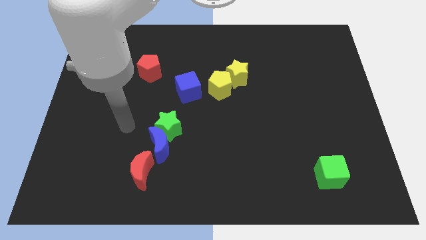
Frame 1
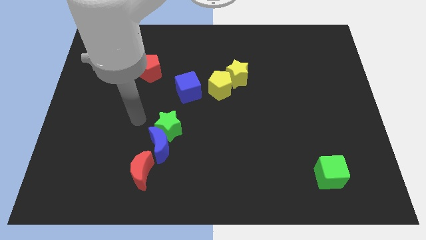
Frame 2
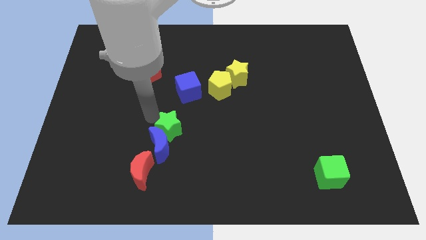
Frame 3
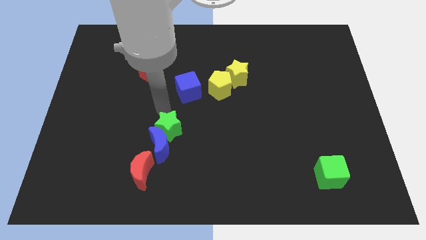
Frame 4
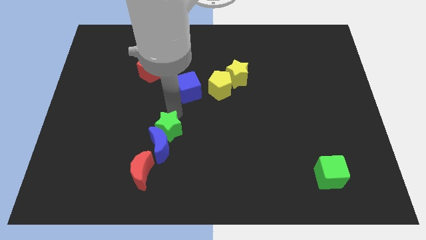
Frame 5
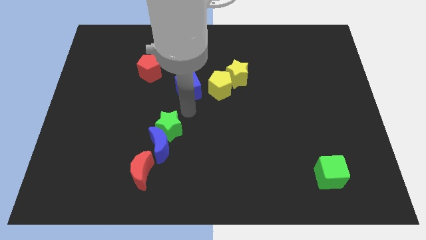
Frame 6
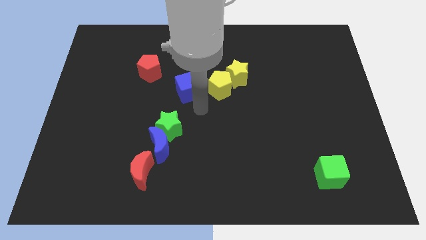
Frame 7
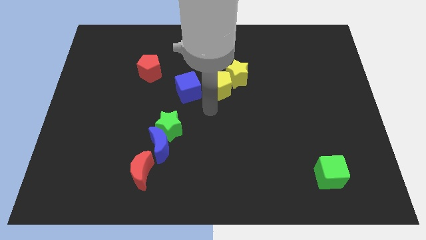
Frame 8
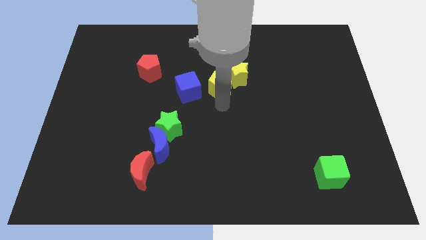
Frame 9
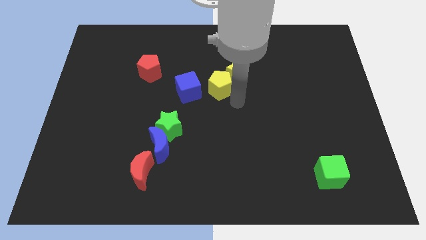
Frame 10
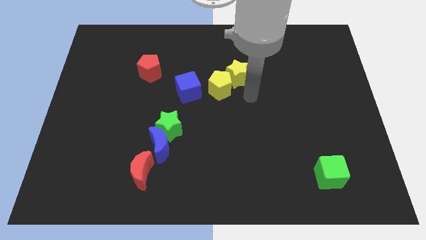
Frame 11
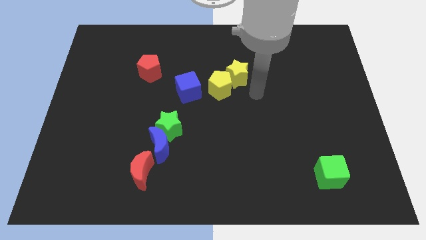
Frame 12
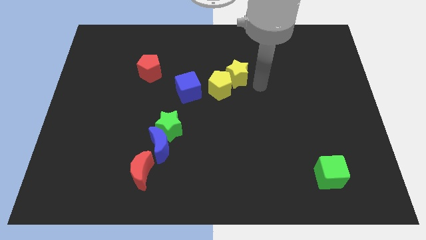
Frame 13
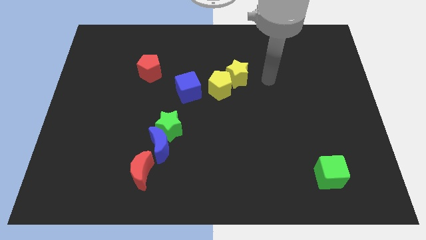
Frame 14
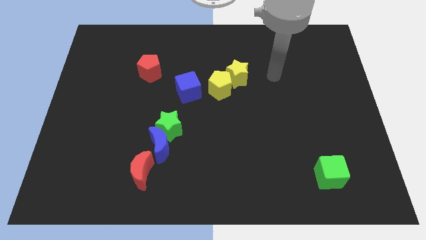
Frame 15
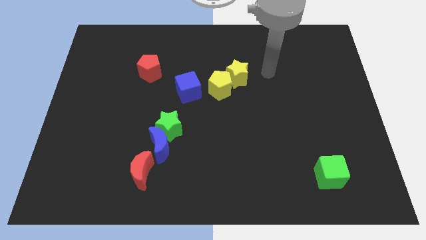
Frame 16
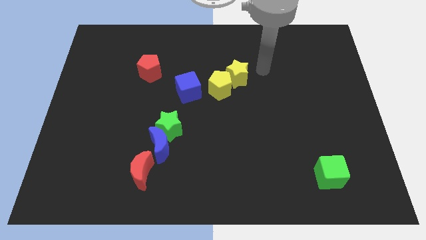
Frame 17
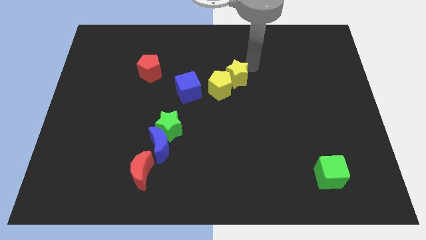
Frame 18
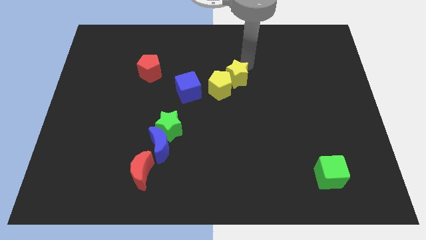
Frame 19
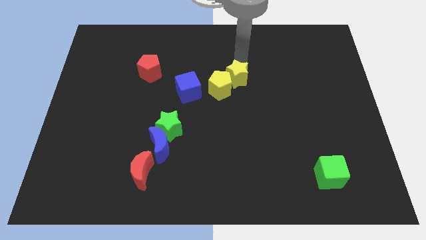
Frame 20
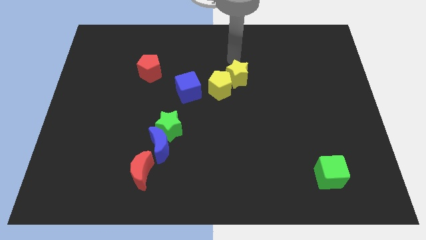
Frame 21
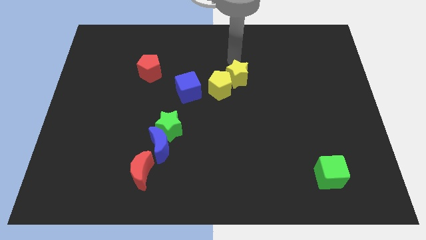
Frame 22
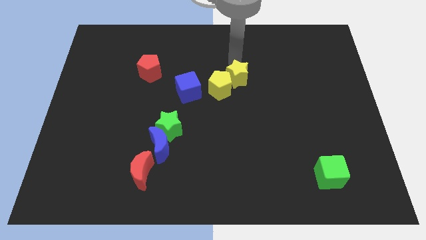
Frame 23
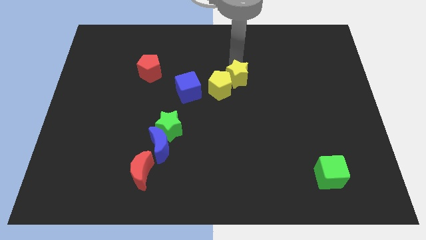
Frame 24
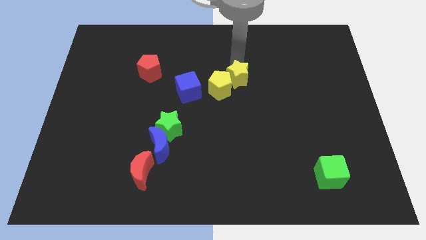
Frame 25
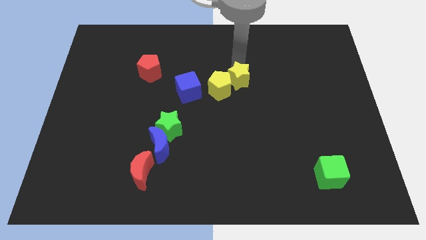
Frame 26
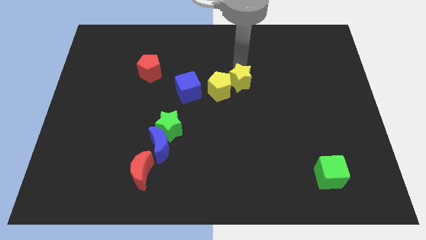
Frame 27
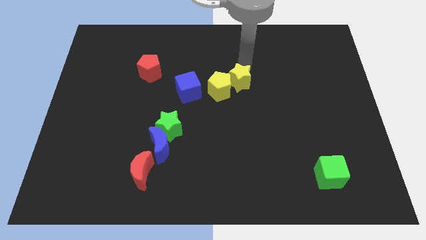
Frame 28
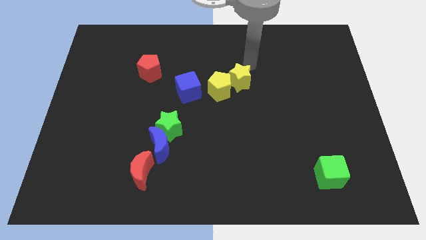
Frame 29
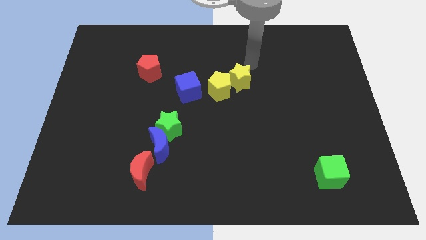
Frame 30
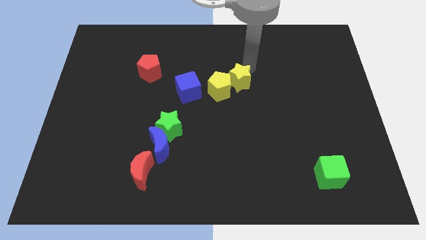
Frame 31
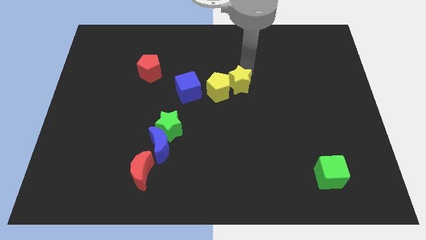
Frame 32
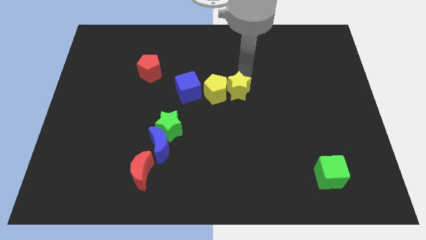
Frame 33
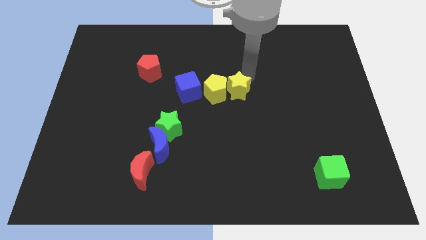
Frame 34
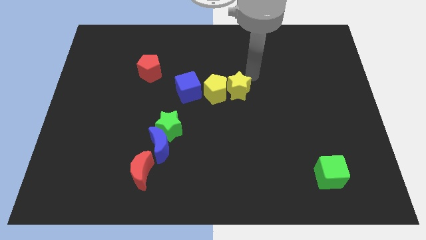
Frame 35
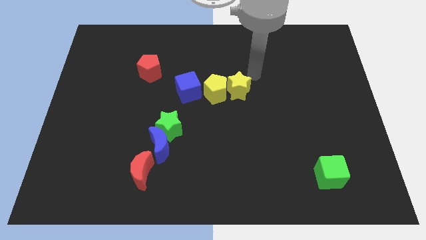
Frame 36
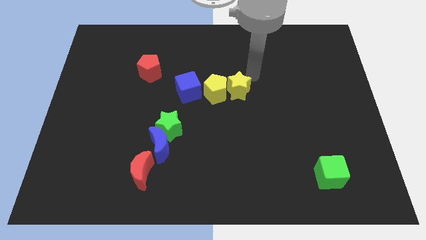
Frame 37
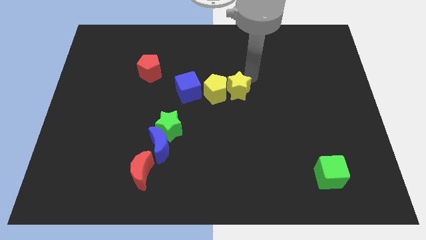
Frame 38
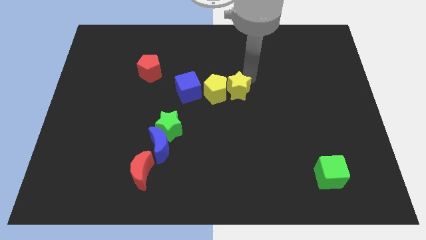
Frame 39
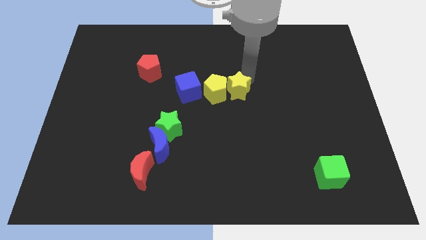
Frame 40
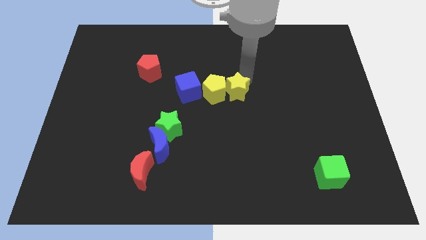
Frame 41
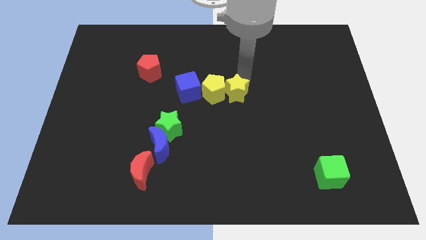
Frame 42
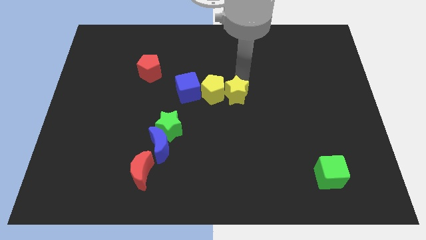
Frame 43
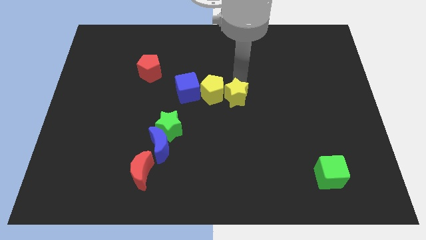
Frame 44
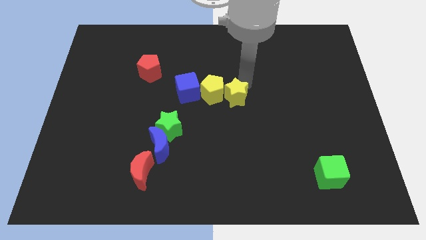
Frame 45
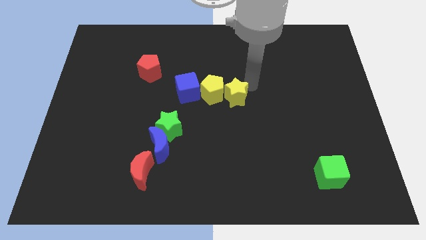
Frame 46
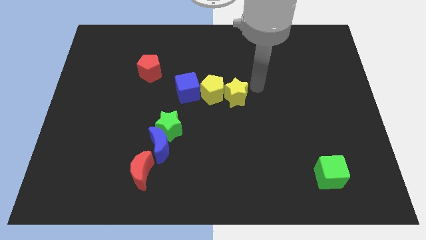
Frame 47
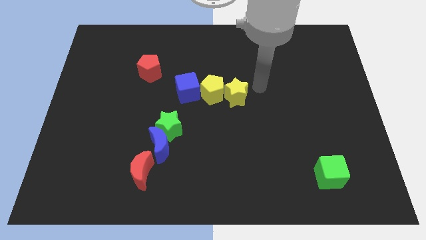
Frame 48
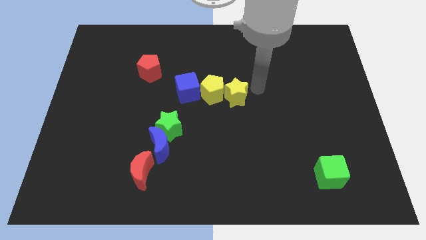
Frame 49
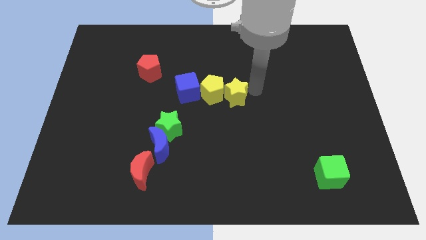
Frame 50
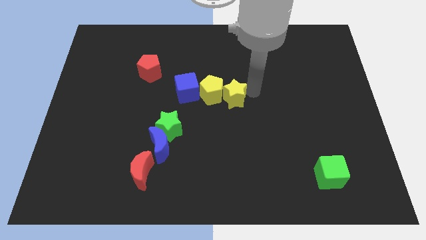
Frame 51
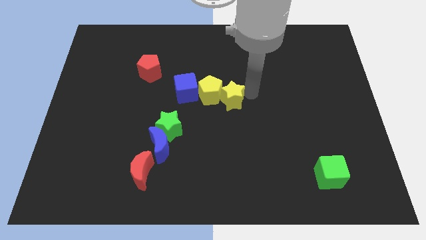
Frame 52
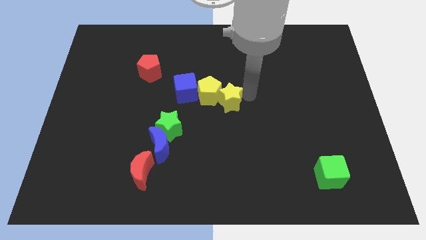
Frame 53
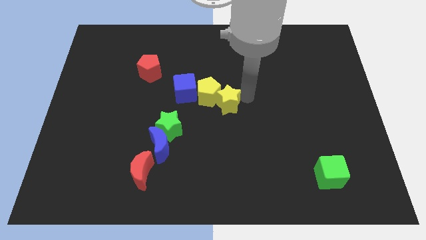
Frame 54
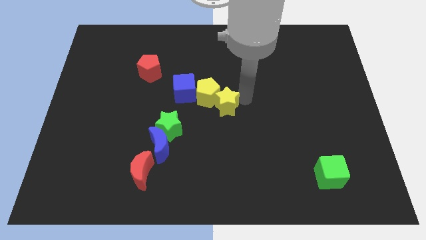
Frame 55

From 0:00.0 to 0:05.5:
slide the yellow star diagonally down and to the right of the blue cube

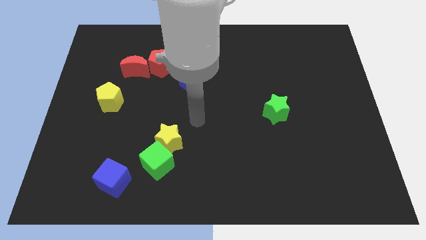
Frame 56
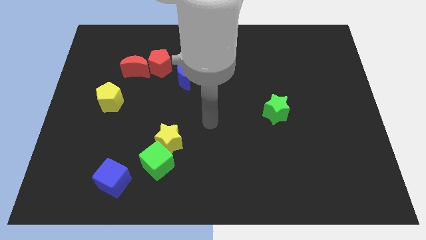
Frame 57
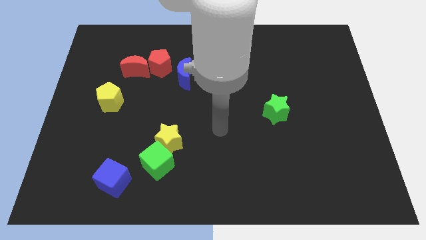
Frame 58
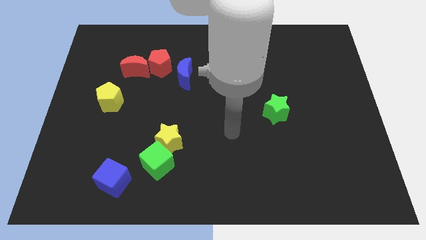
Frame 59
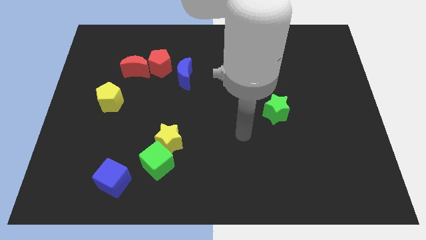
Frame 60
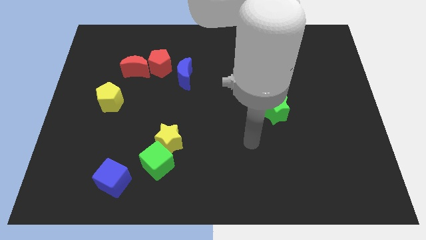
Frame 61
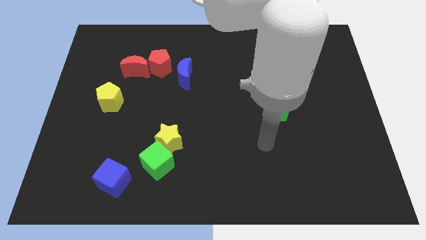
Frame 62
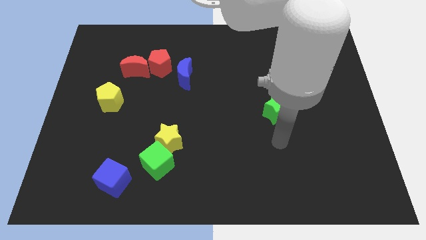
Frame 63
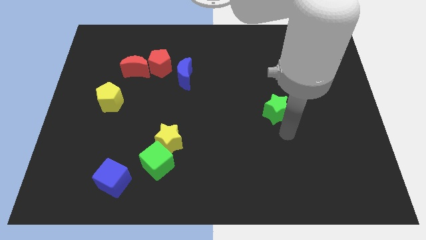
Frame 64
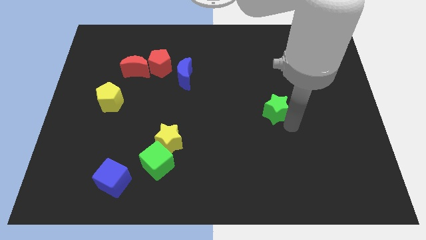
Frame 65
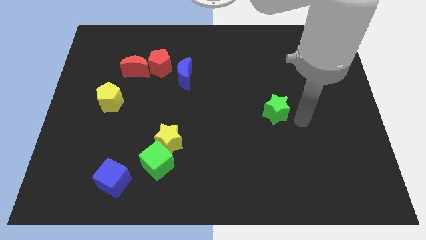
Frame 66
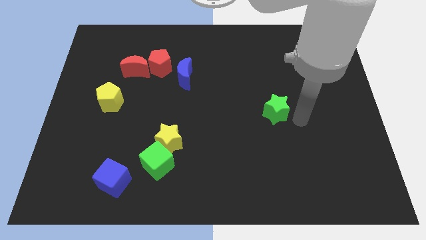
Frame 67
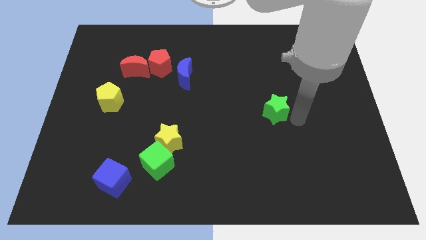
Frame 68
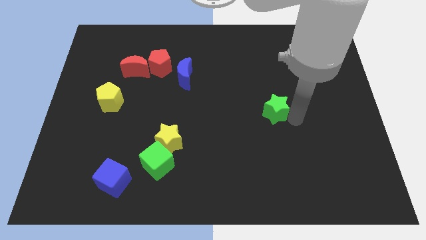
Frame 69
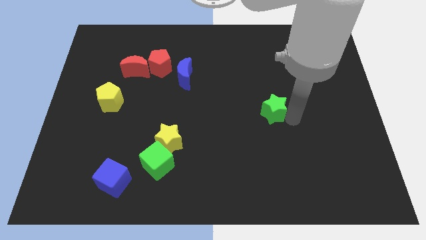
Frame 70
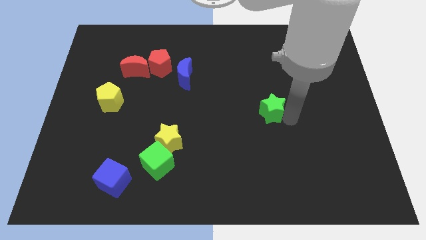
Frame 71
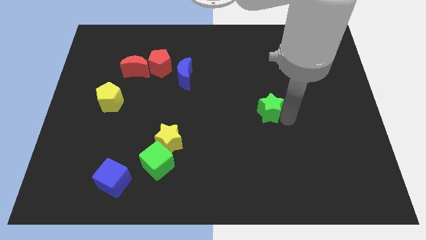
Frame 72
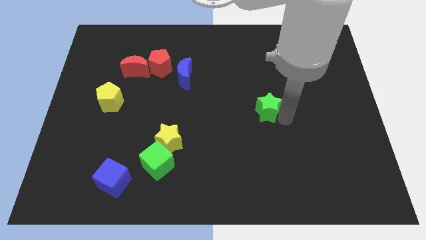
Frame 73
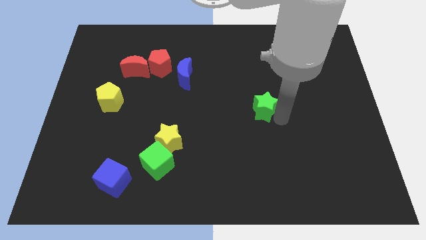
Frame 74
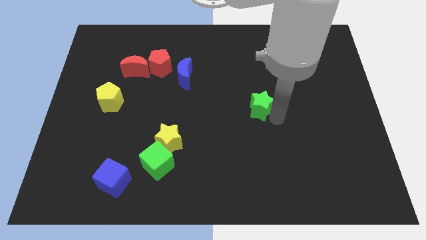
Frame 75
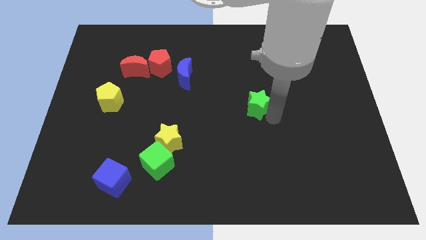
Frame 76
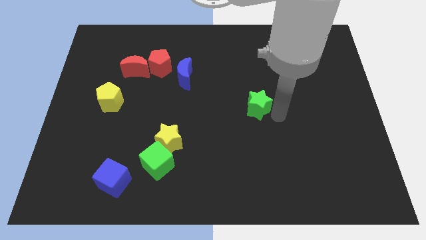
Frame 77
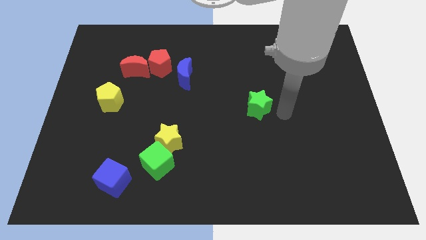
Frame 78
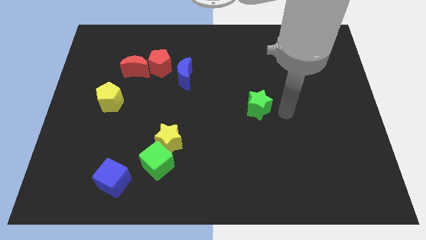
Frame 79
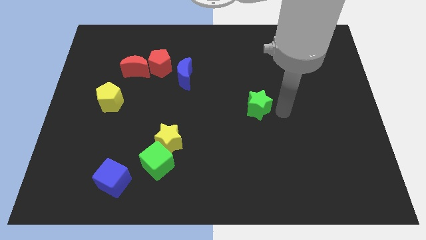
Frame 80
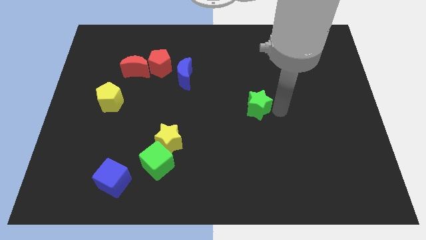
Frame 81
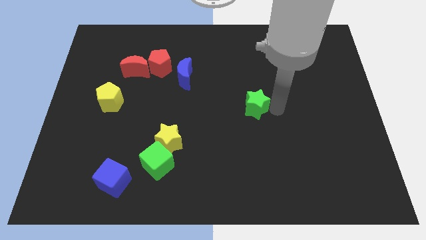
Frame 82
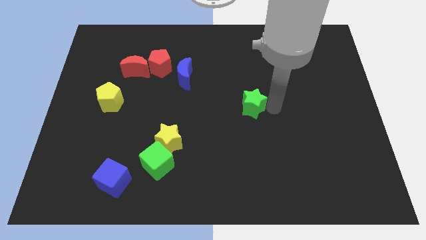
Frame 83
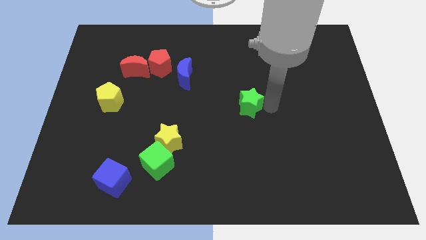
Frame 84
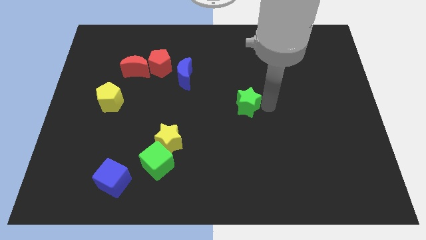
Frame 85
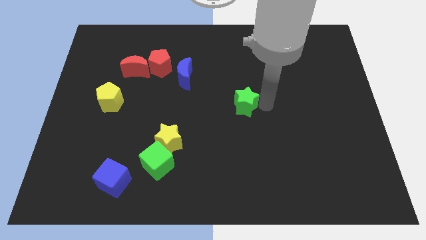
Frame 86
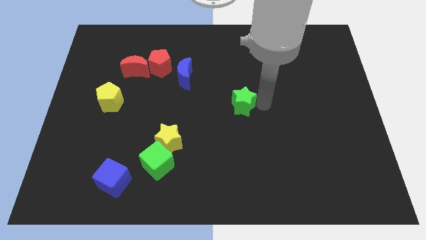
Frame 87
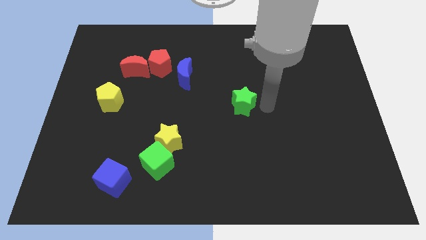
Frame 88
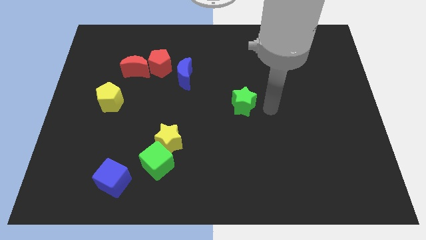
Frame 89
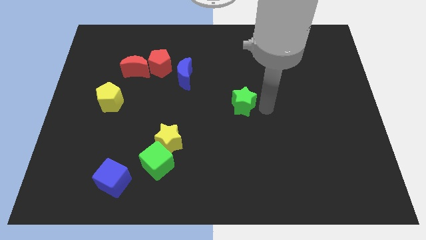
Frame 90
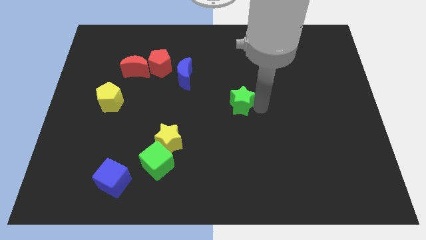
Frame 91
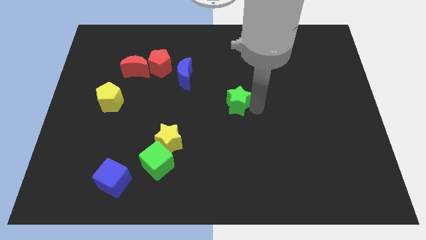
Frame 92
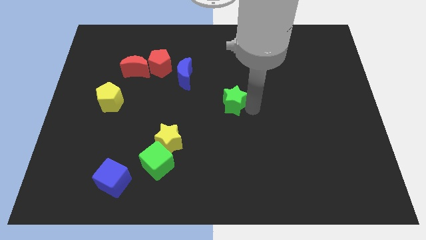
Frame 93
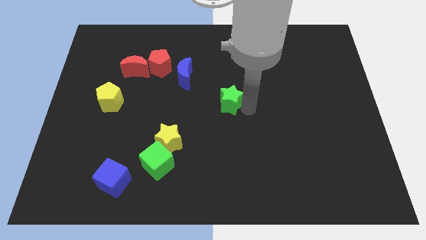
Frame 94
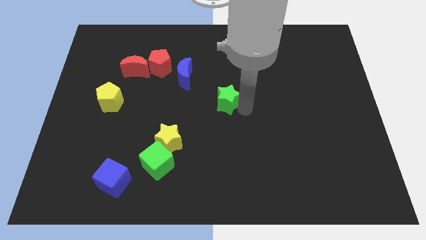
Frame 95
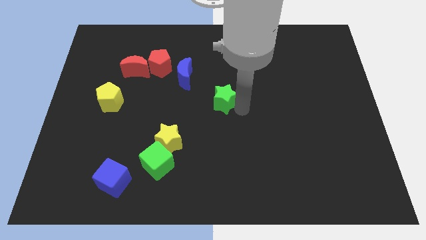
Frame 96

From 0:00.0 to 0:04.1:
slide the green star diagonally down and to the right of the blue moon
